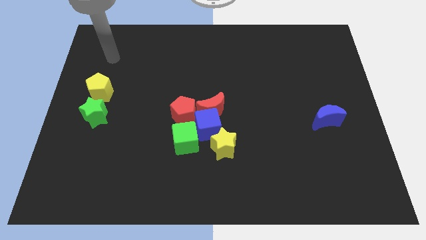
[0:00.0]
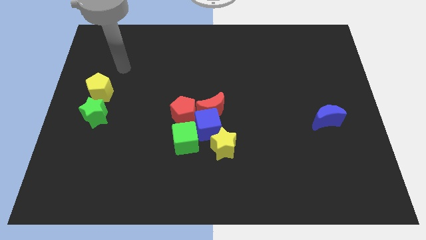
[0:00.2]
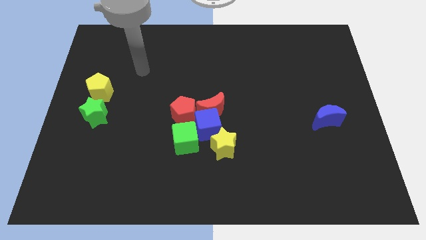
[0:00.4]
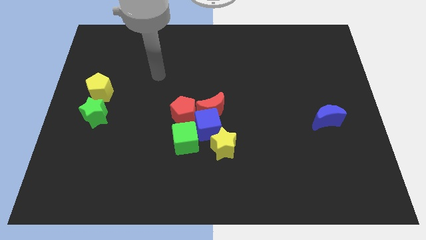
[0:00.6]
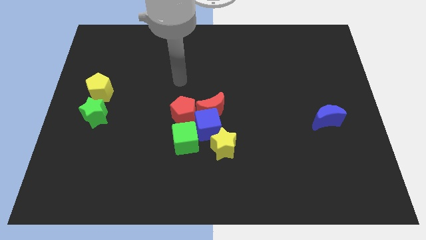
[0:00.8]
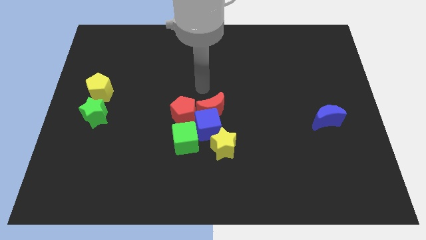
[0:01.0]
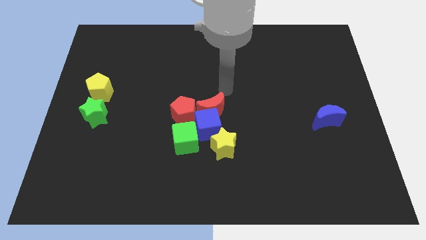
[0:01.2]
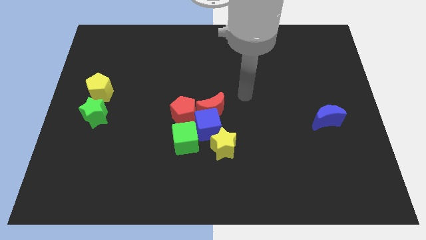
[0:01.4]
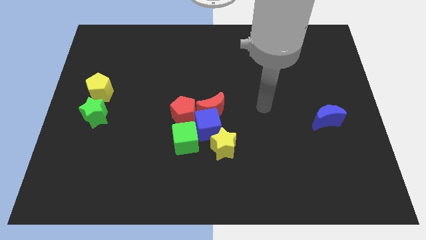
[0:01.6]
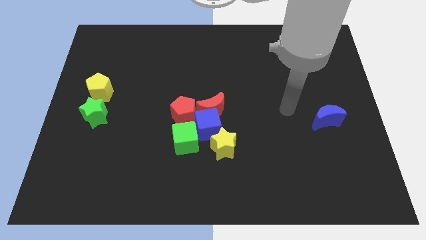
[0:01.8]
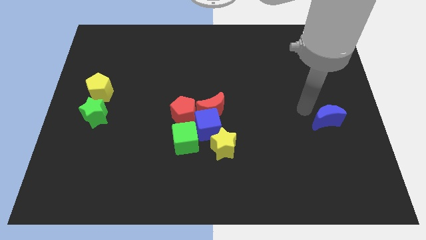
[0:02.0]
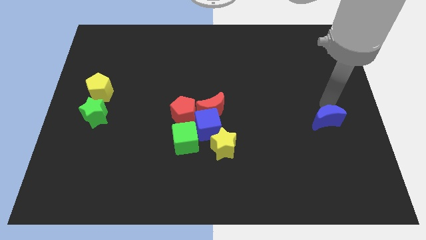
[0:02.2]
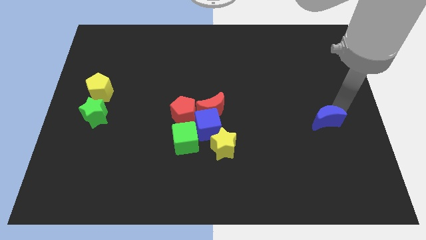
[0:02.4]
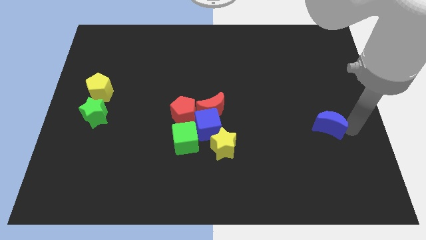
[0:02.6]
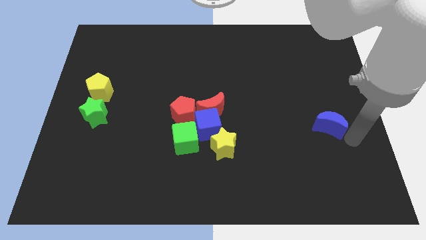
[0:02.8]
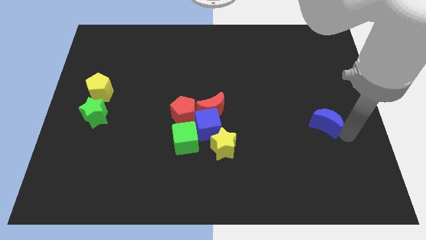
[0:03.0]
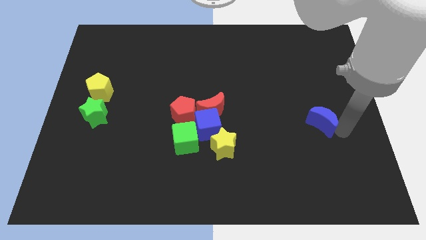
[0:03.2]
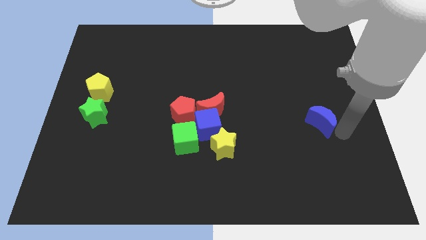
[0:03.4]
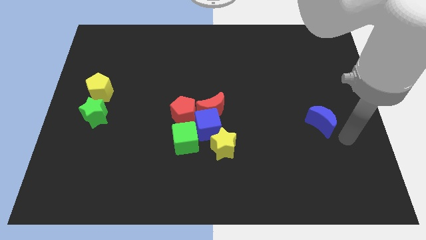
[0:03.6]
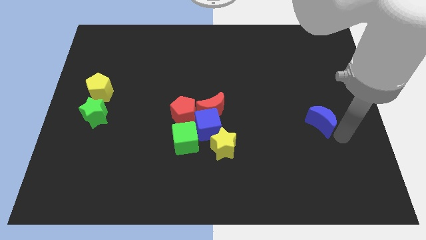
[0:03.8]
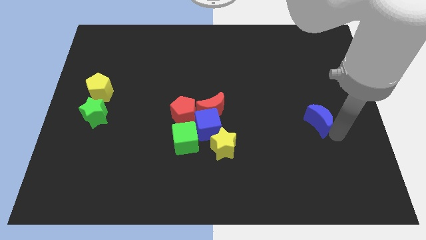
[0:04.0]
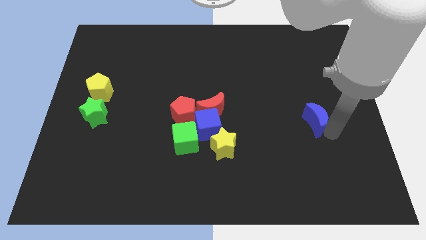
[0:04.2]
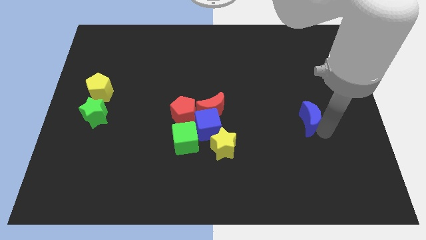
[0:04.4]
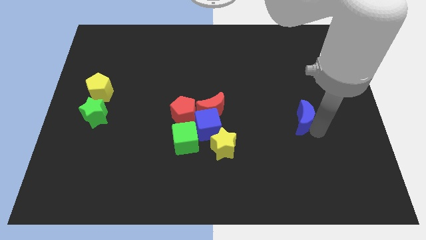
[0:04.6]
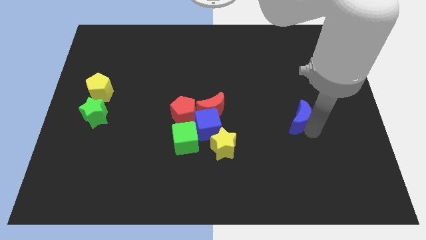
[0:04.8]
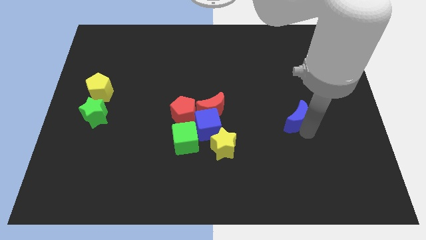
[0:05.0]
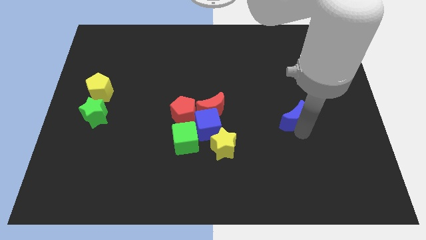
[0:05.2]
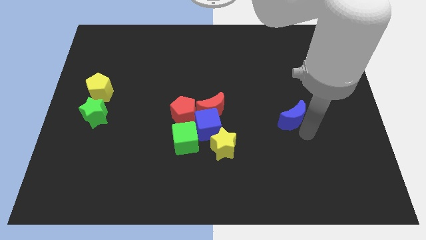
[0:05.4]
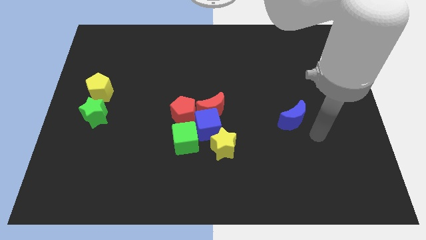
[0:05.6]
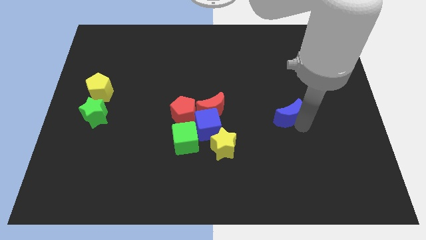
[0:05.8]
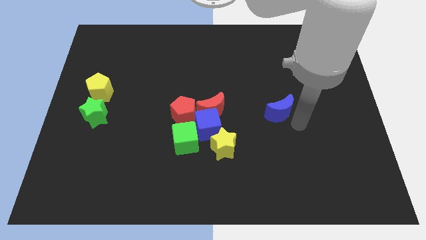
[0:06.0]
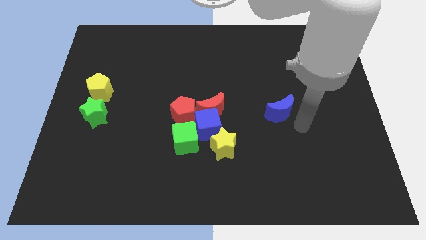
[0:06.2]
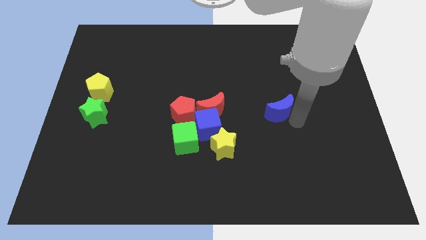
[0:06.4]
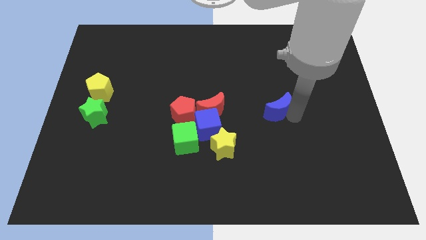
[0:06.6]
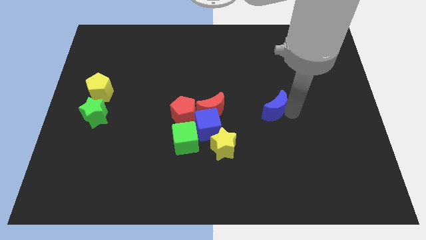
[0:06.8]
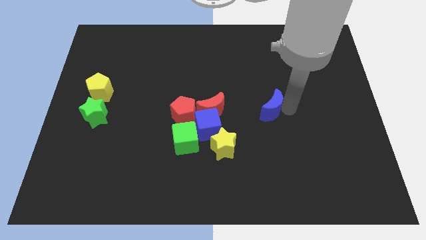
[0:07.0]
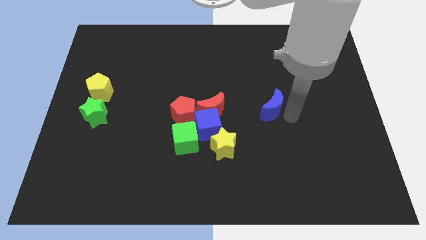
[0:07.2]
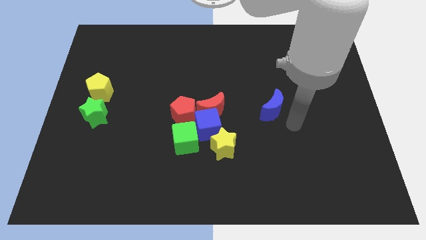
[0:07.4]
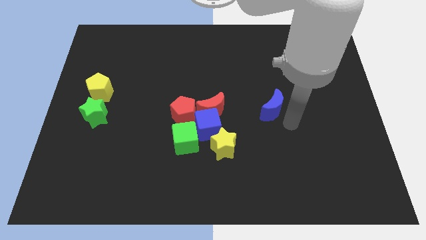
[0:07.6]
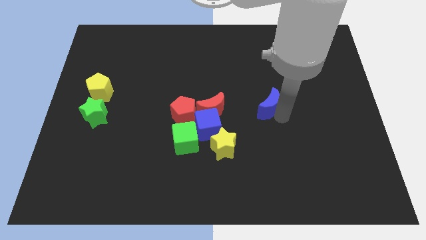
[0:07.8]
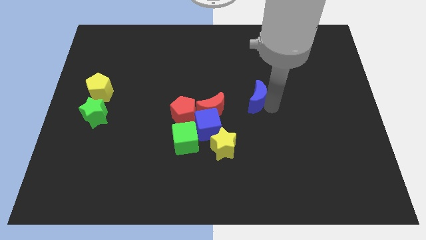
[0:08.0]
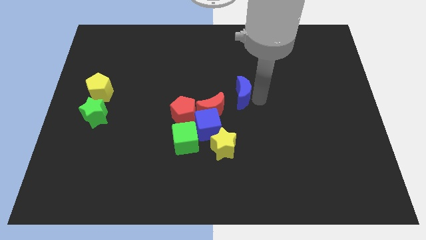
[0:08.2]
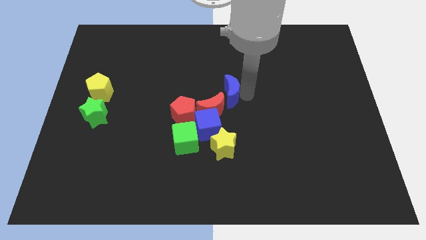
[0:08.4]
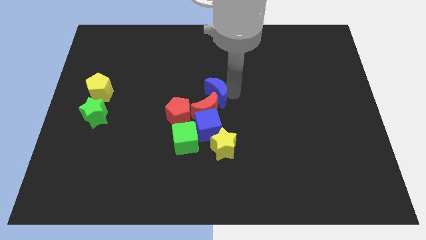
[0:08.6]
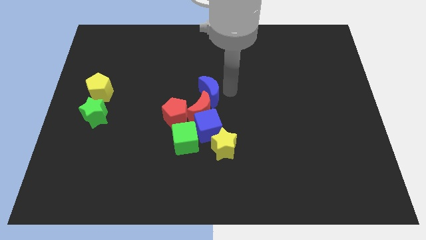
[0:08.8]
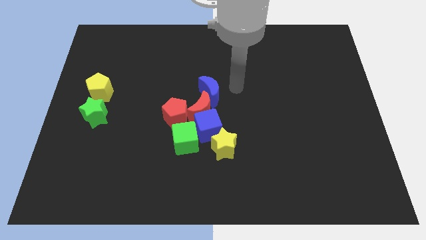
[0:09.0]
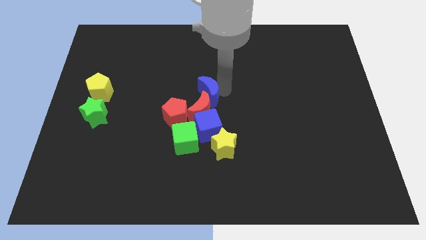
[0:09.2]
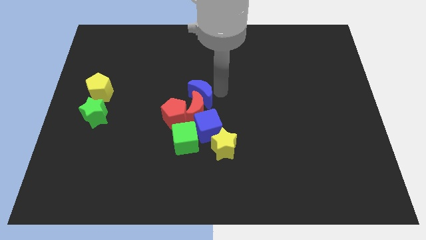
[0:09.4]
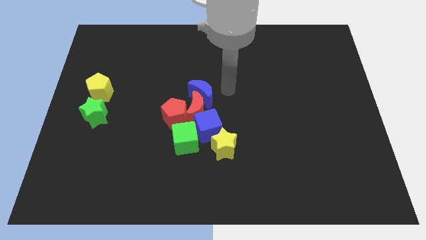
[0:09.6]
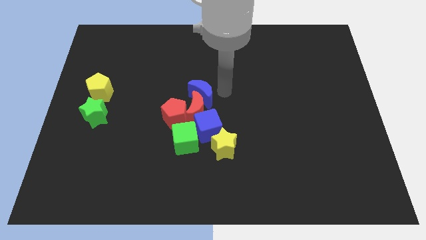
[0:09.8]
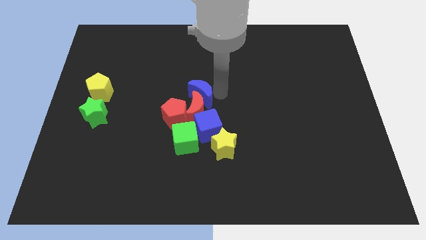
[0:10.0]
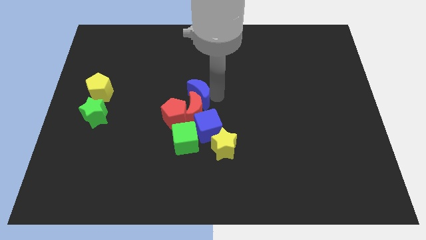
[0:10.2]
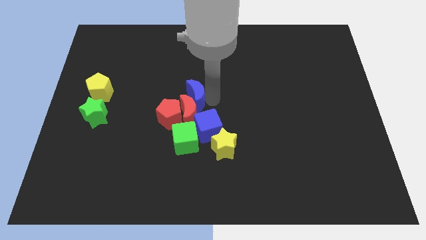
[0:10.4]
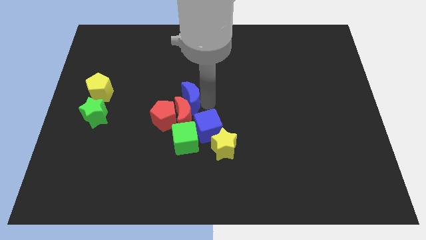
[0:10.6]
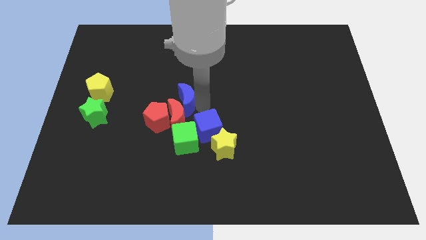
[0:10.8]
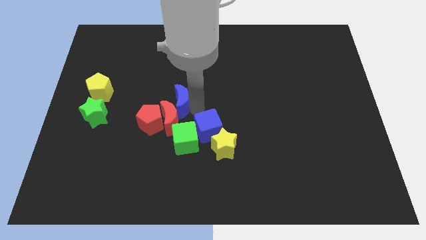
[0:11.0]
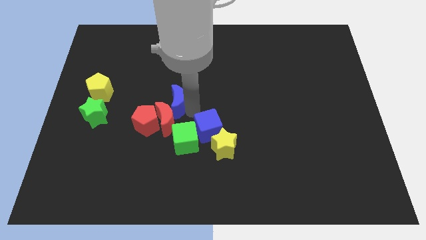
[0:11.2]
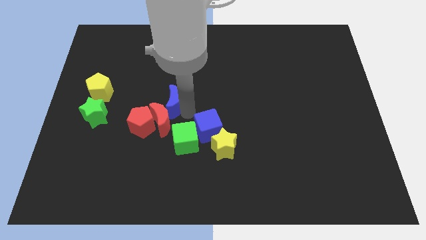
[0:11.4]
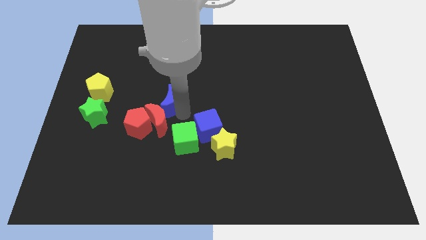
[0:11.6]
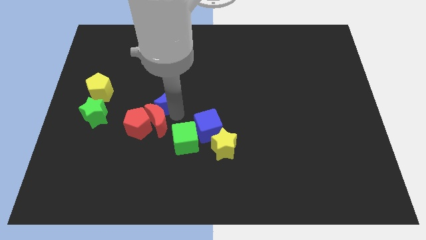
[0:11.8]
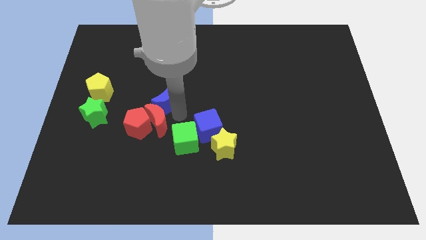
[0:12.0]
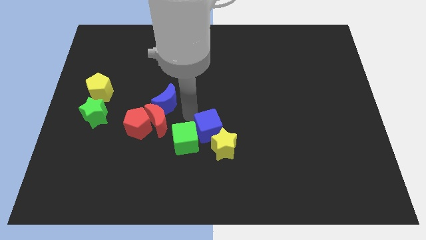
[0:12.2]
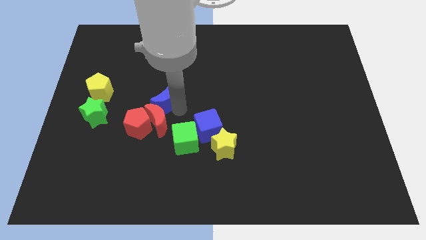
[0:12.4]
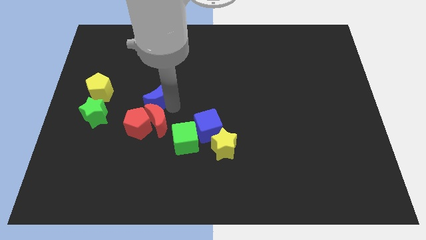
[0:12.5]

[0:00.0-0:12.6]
move the blue moon just right of the yellow pentagon

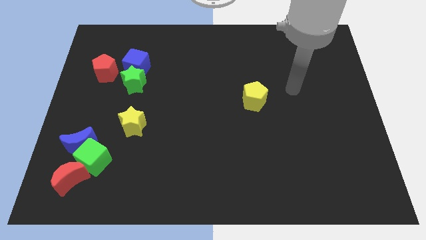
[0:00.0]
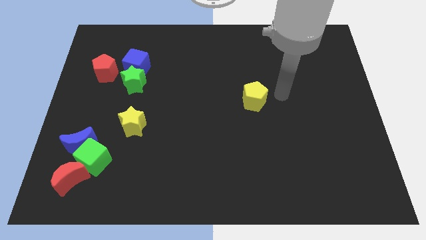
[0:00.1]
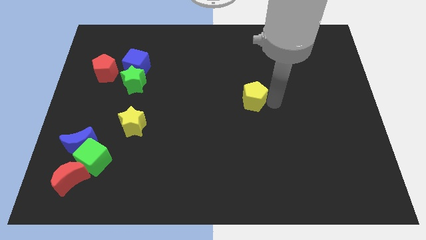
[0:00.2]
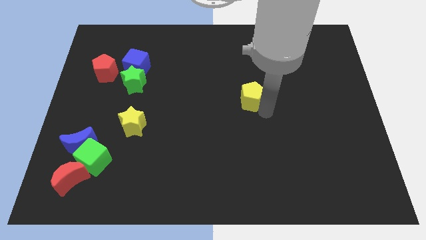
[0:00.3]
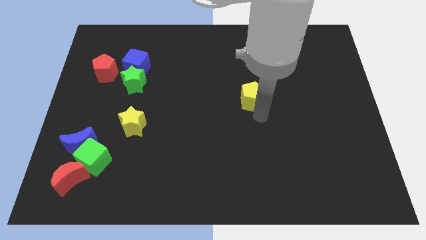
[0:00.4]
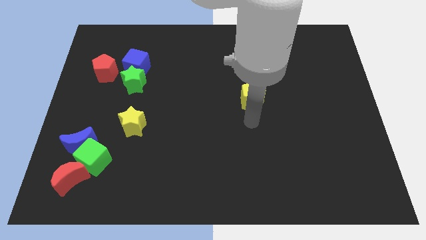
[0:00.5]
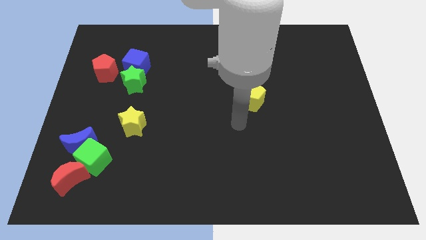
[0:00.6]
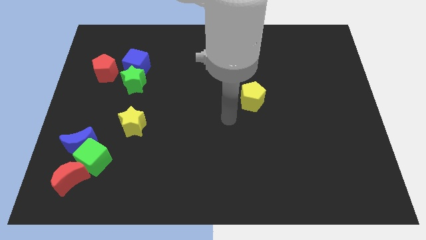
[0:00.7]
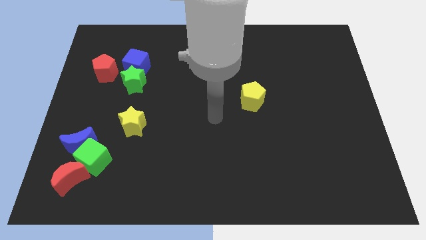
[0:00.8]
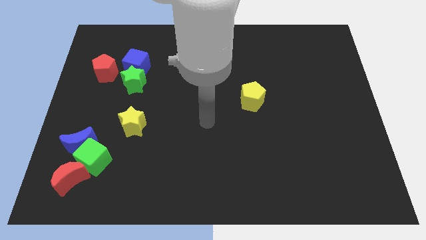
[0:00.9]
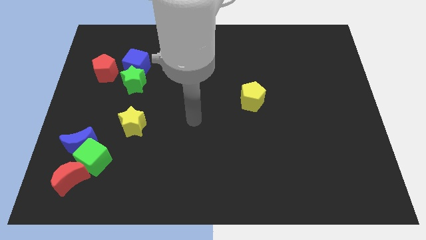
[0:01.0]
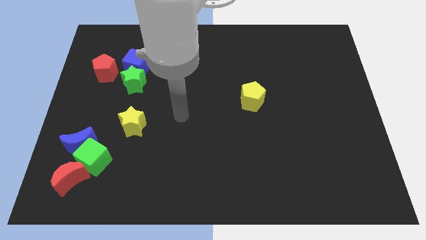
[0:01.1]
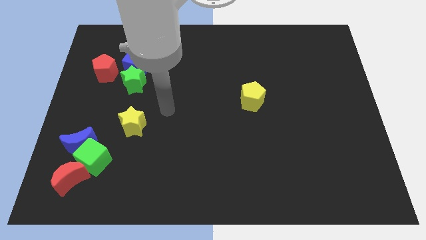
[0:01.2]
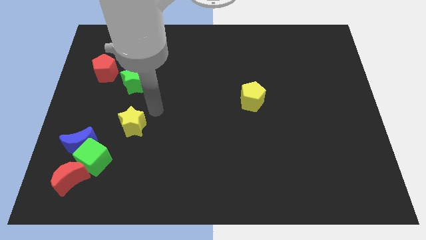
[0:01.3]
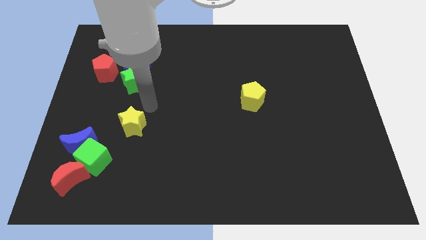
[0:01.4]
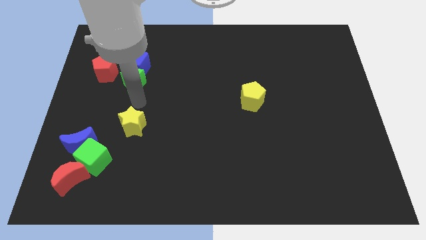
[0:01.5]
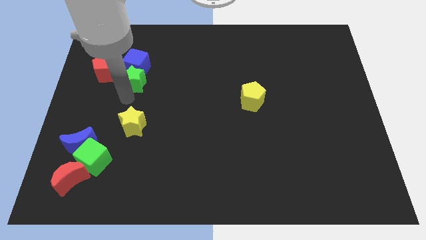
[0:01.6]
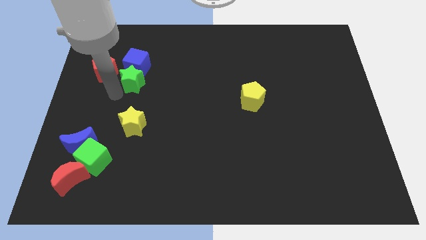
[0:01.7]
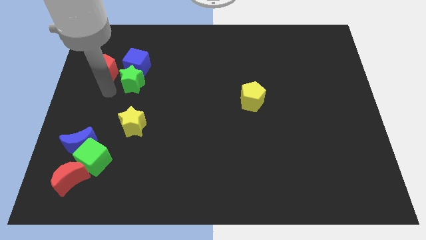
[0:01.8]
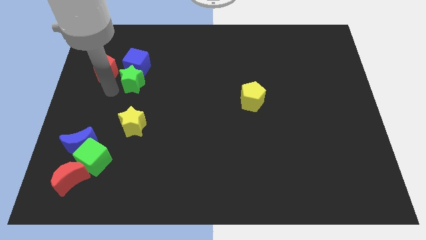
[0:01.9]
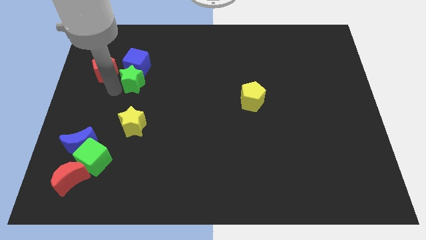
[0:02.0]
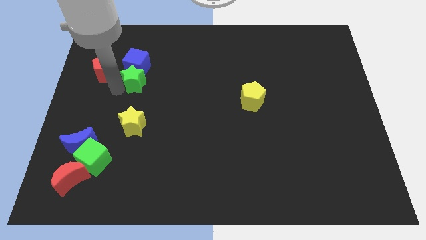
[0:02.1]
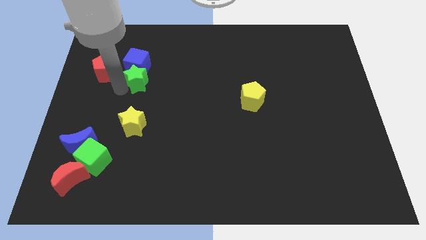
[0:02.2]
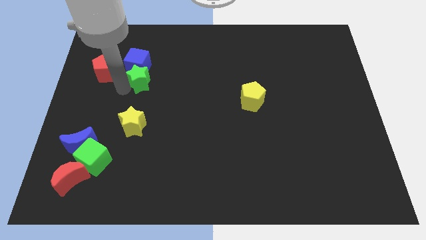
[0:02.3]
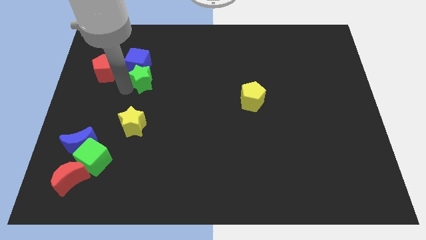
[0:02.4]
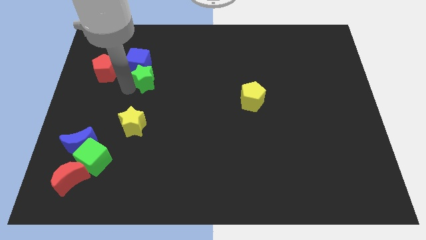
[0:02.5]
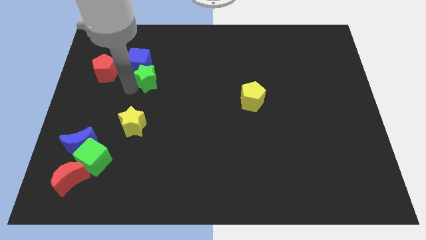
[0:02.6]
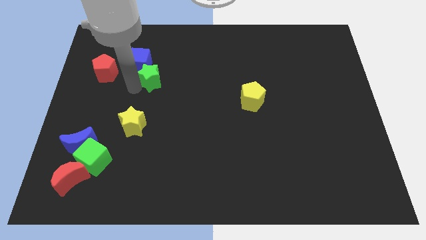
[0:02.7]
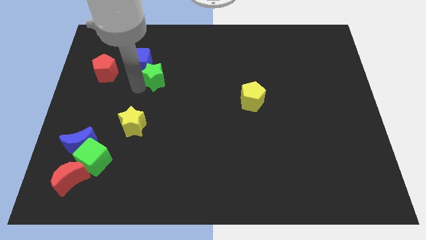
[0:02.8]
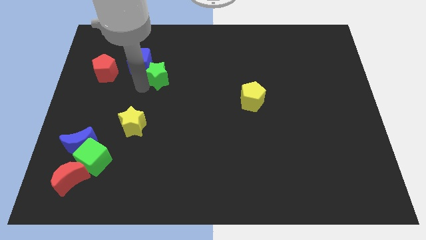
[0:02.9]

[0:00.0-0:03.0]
put the green star just right of the blue cube
